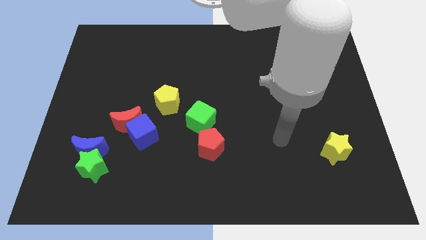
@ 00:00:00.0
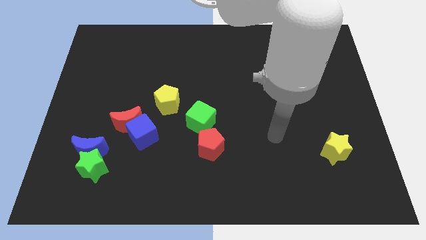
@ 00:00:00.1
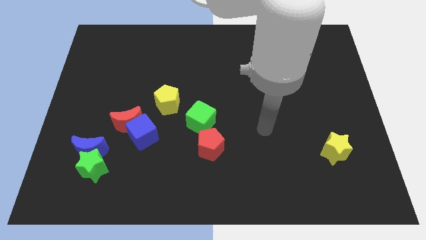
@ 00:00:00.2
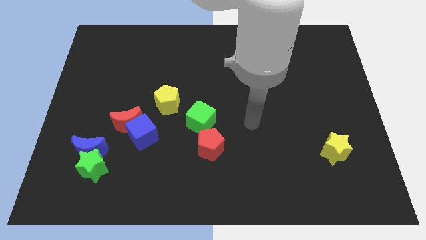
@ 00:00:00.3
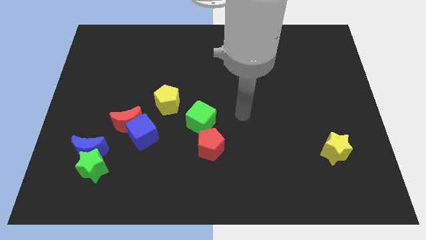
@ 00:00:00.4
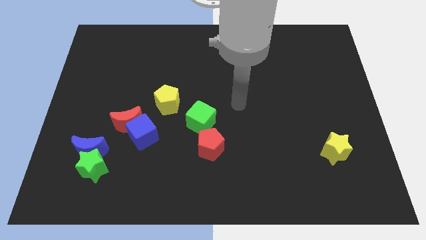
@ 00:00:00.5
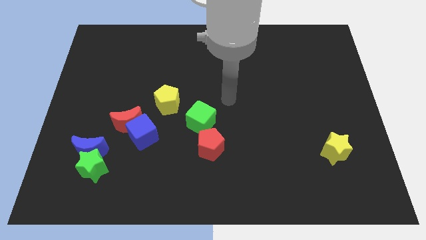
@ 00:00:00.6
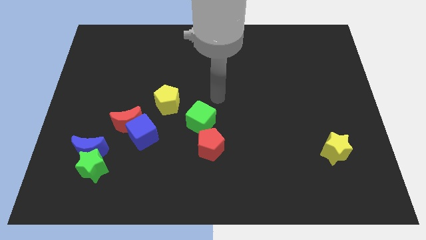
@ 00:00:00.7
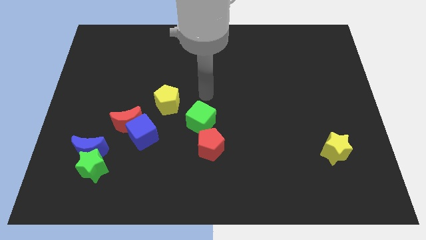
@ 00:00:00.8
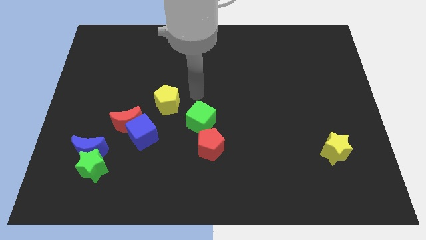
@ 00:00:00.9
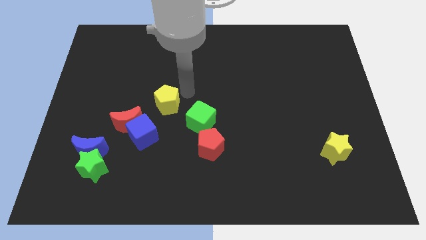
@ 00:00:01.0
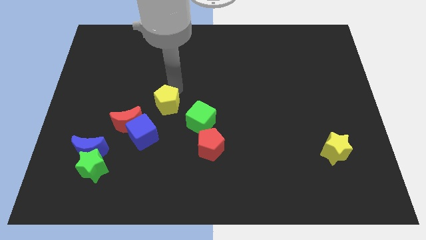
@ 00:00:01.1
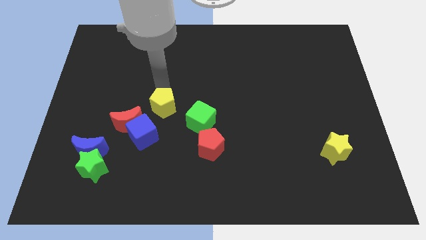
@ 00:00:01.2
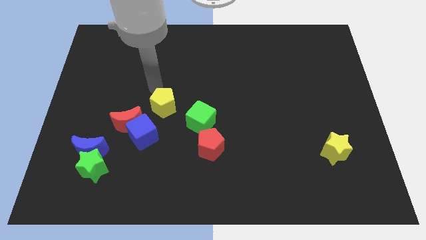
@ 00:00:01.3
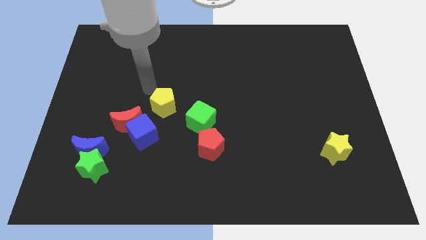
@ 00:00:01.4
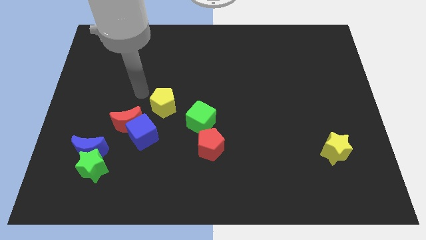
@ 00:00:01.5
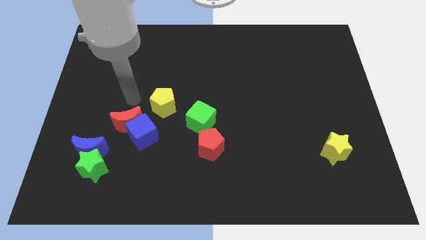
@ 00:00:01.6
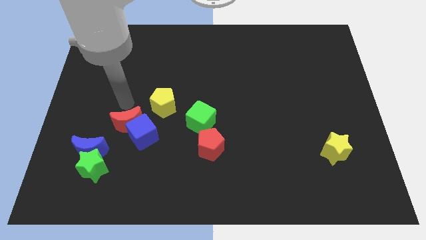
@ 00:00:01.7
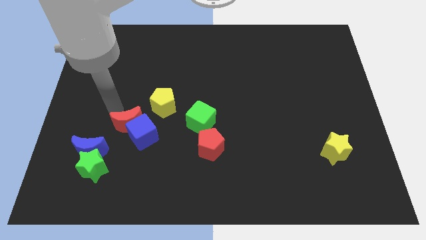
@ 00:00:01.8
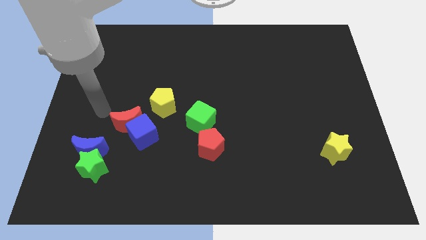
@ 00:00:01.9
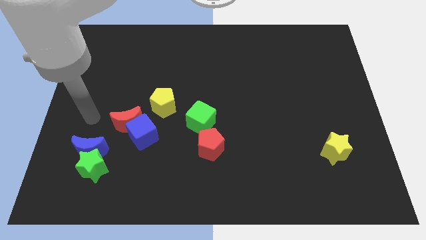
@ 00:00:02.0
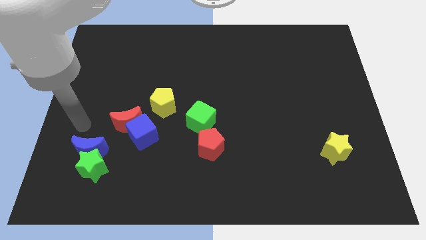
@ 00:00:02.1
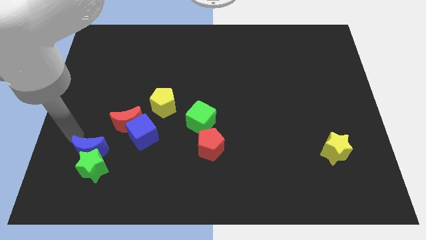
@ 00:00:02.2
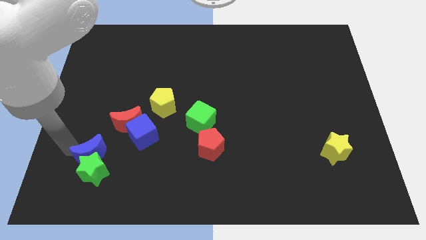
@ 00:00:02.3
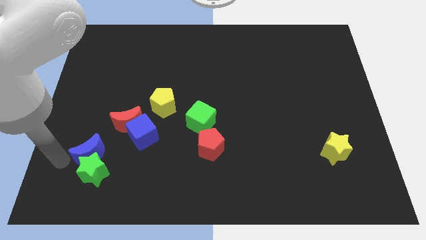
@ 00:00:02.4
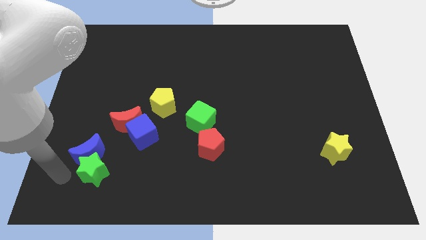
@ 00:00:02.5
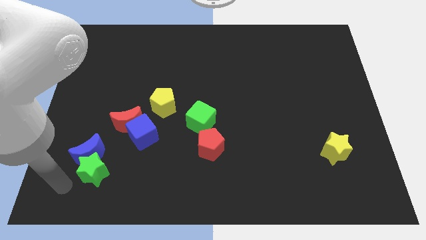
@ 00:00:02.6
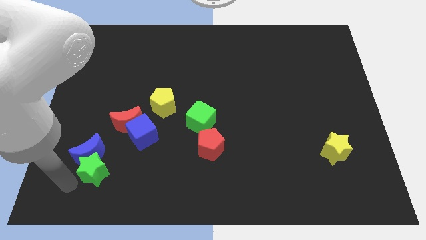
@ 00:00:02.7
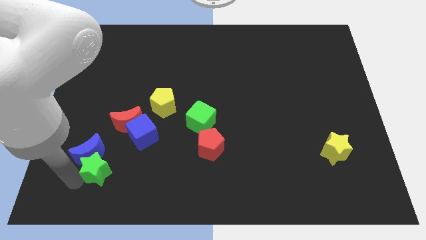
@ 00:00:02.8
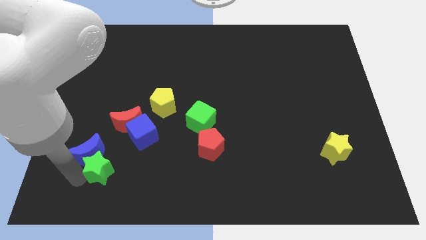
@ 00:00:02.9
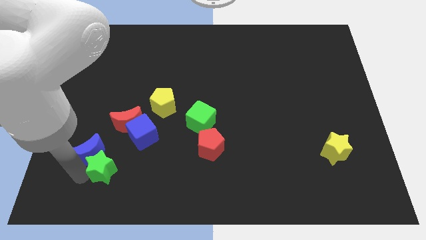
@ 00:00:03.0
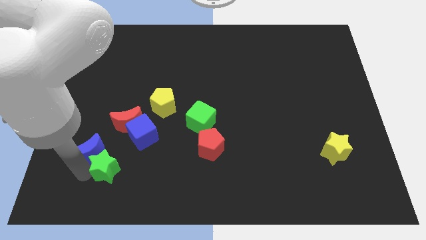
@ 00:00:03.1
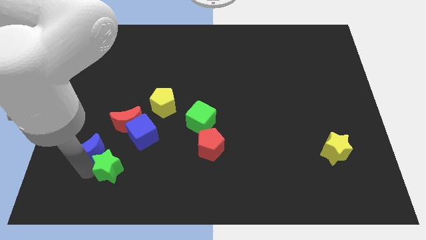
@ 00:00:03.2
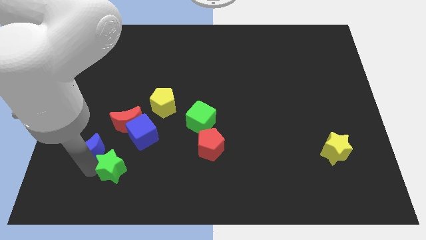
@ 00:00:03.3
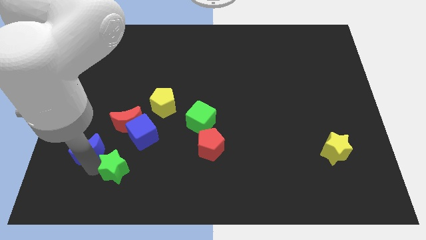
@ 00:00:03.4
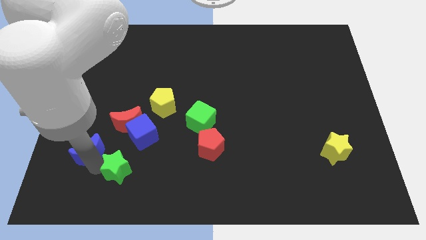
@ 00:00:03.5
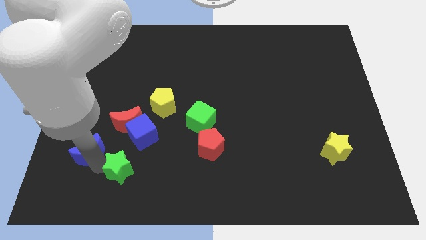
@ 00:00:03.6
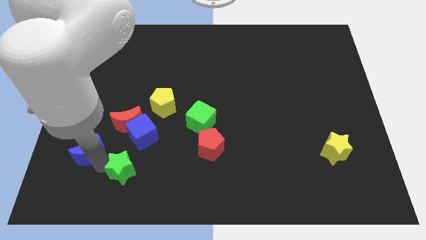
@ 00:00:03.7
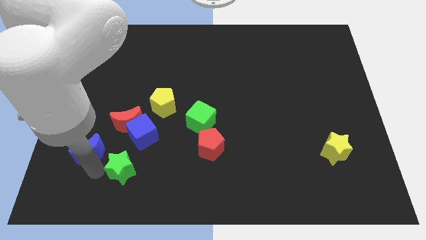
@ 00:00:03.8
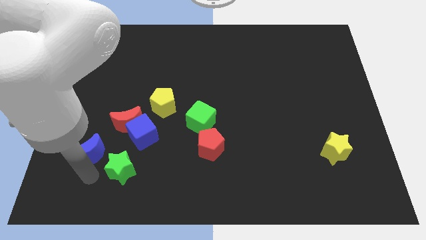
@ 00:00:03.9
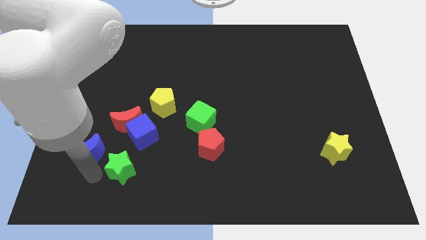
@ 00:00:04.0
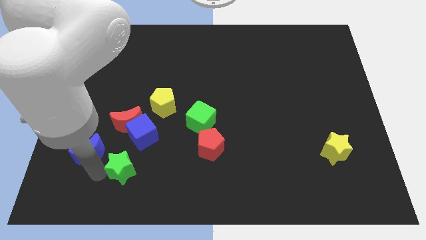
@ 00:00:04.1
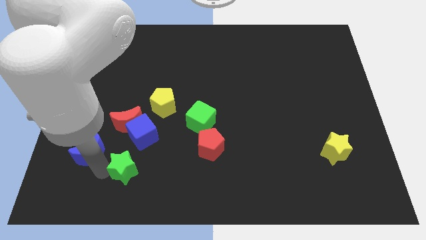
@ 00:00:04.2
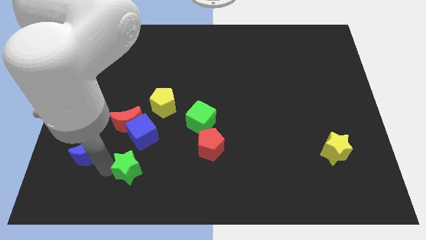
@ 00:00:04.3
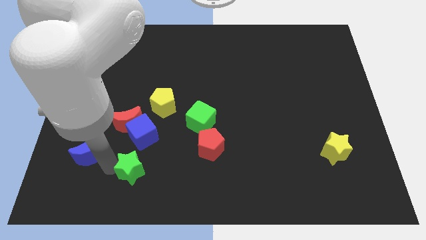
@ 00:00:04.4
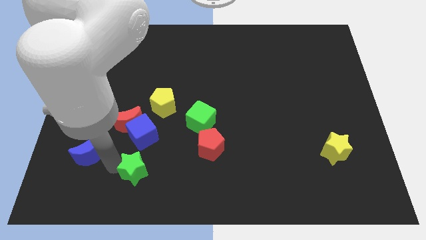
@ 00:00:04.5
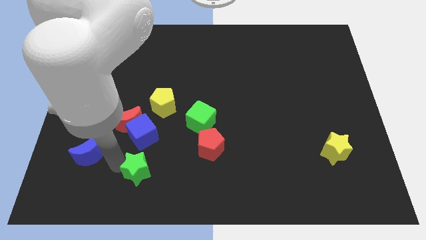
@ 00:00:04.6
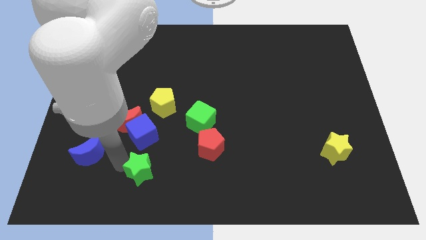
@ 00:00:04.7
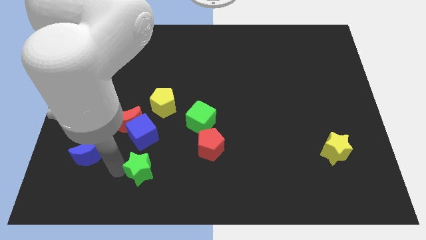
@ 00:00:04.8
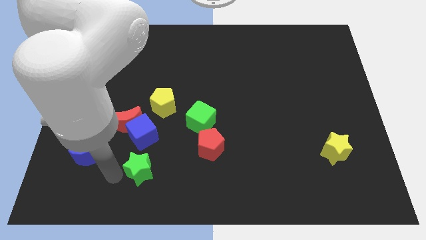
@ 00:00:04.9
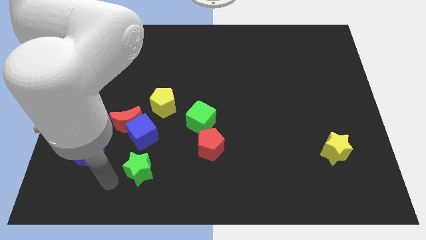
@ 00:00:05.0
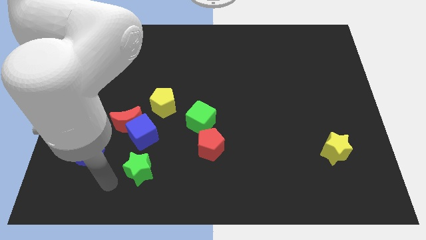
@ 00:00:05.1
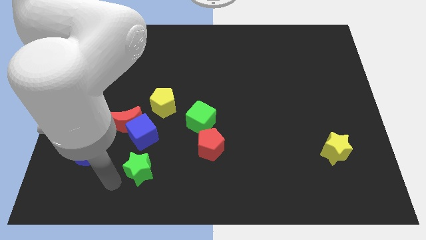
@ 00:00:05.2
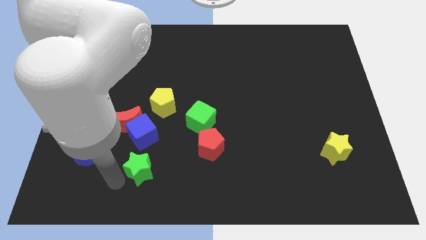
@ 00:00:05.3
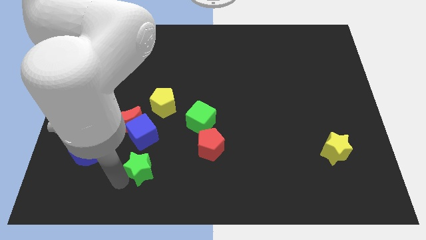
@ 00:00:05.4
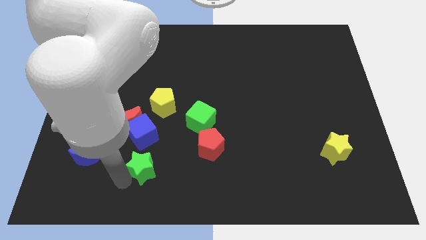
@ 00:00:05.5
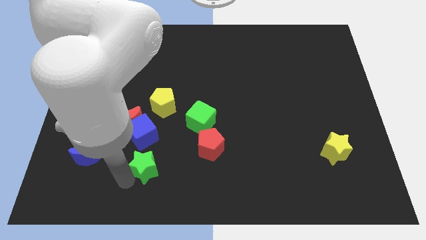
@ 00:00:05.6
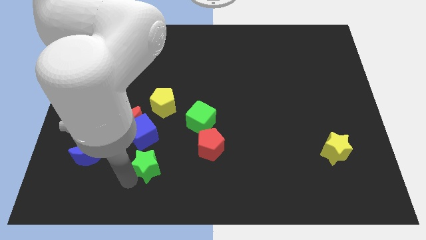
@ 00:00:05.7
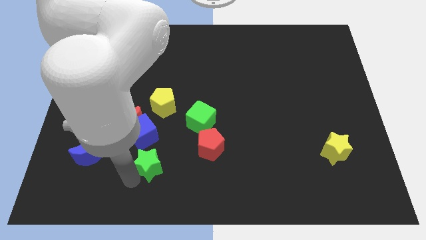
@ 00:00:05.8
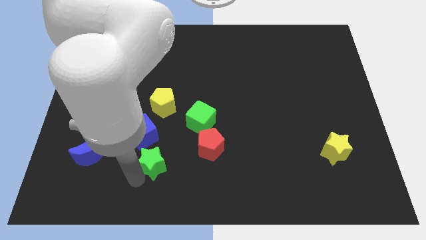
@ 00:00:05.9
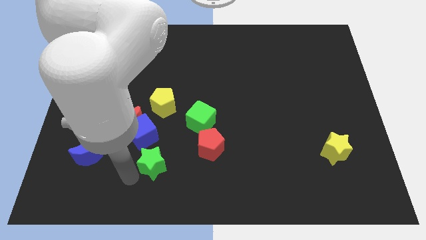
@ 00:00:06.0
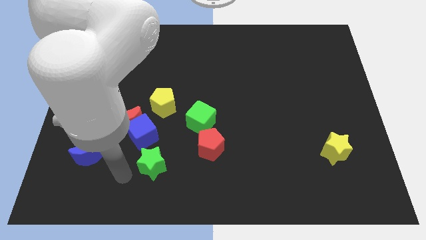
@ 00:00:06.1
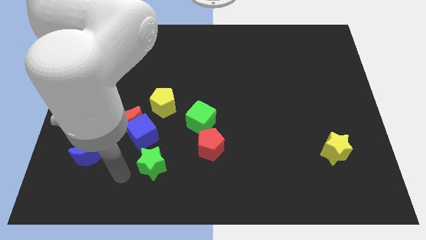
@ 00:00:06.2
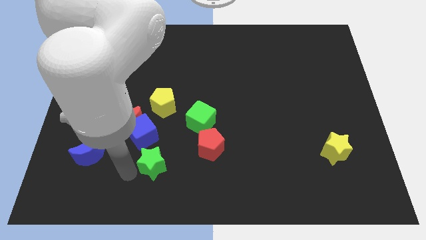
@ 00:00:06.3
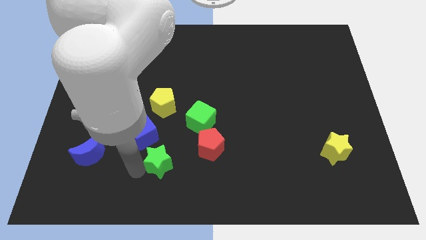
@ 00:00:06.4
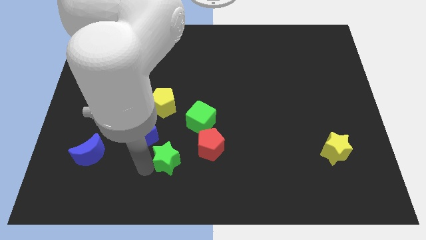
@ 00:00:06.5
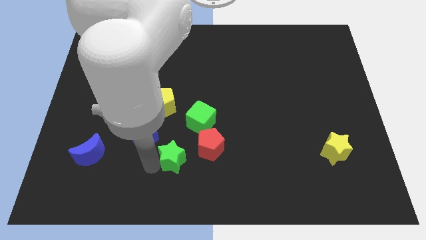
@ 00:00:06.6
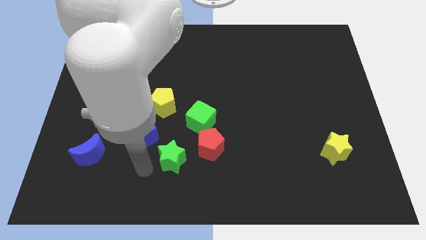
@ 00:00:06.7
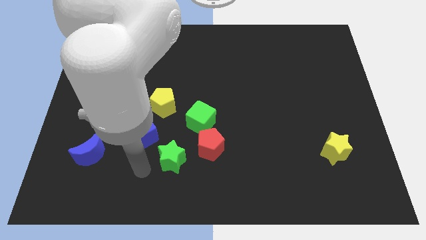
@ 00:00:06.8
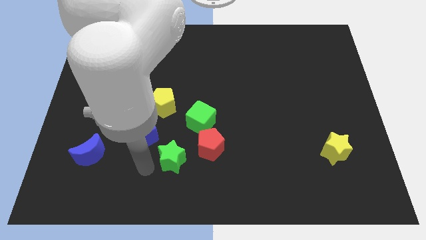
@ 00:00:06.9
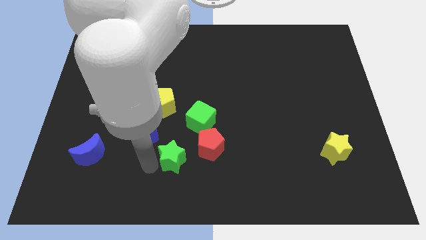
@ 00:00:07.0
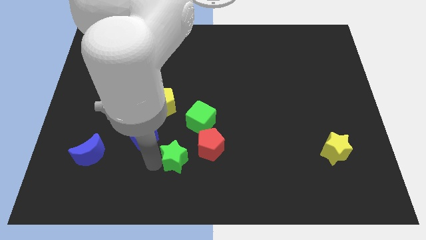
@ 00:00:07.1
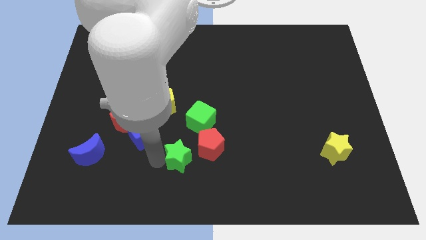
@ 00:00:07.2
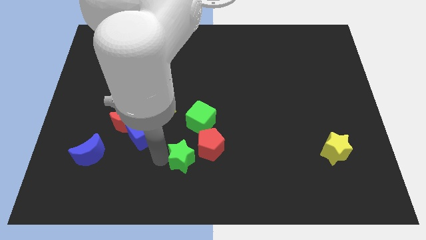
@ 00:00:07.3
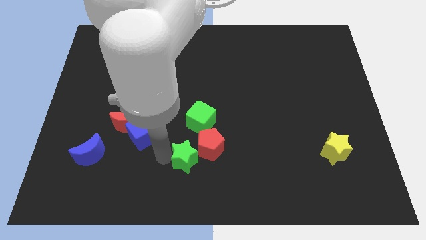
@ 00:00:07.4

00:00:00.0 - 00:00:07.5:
slide the green star next to the red pentagon

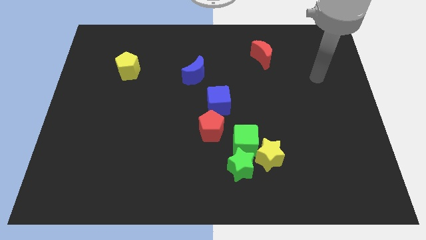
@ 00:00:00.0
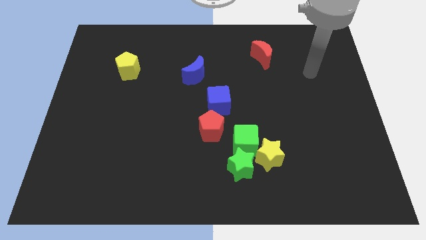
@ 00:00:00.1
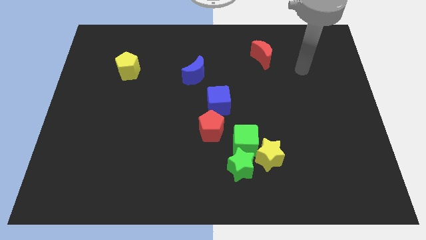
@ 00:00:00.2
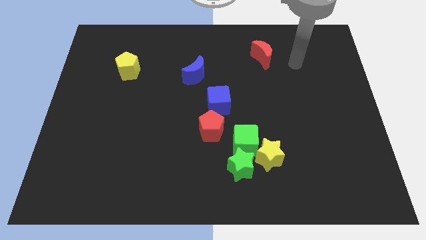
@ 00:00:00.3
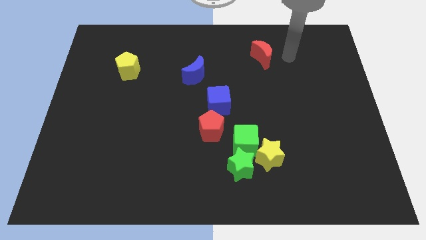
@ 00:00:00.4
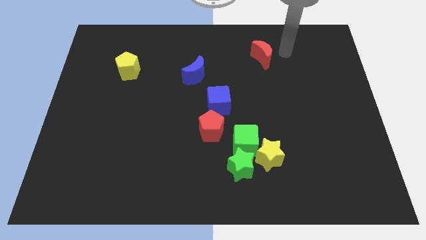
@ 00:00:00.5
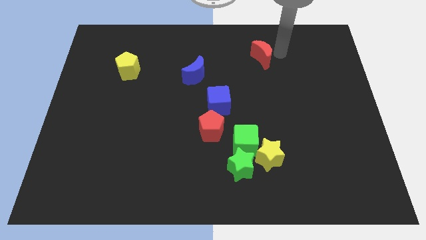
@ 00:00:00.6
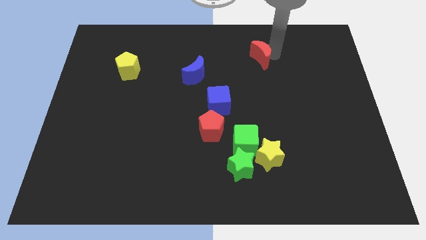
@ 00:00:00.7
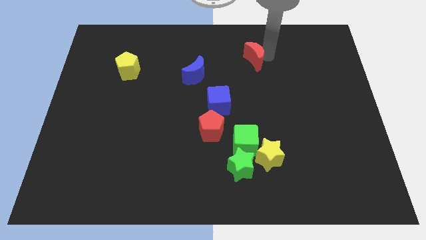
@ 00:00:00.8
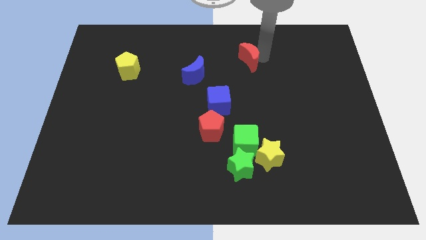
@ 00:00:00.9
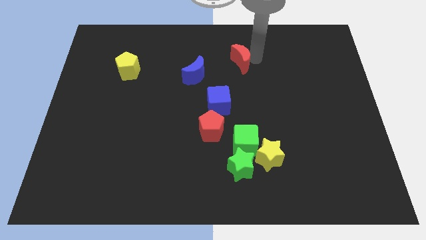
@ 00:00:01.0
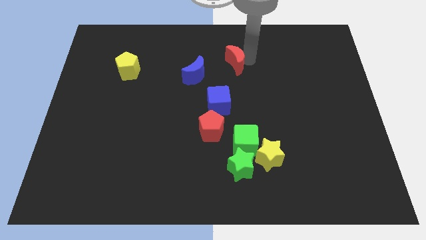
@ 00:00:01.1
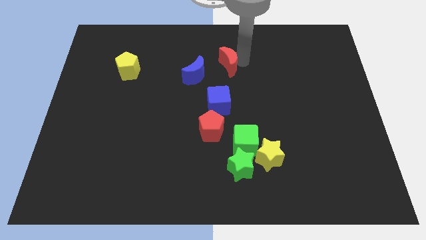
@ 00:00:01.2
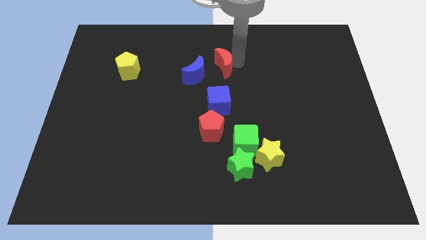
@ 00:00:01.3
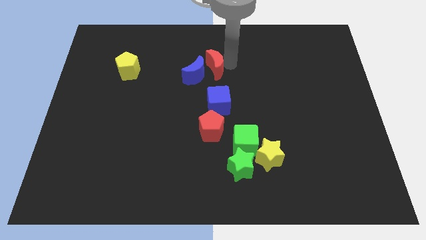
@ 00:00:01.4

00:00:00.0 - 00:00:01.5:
put the red moon next to the blue moon
